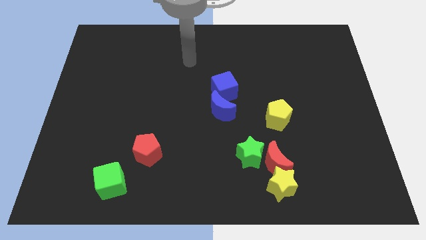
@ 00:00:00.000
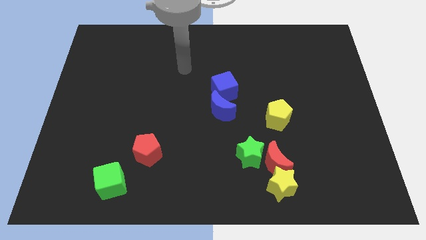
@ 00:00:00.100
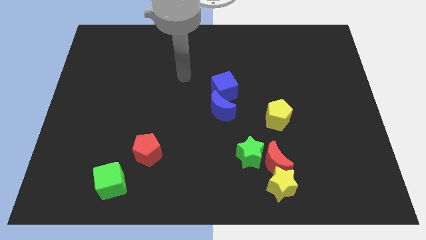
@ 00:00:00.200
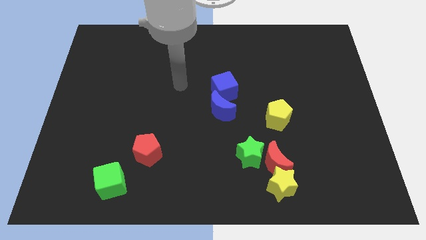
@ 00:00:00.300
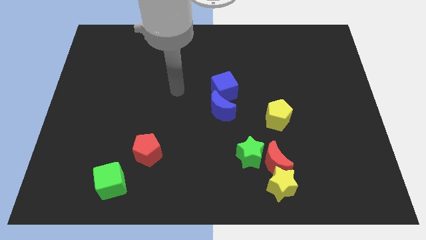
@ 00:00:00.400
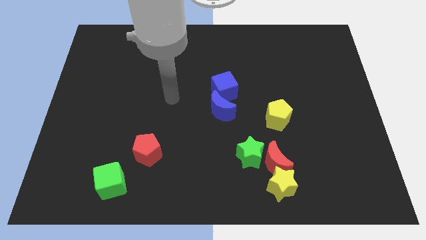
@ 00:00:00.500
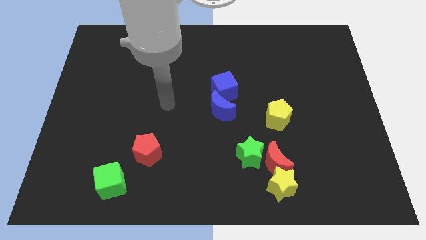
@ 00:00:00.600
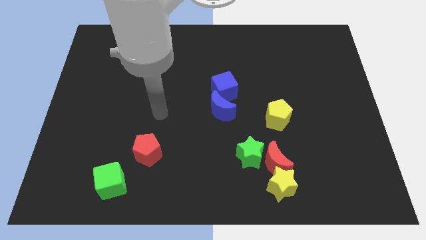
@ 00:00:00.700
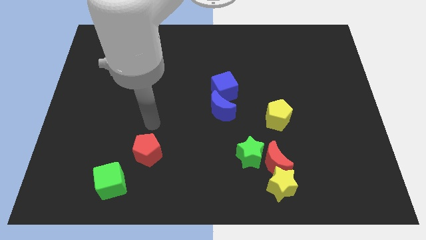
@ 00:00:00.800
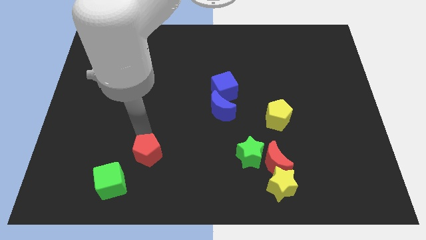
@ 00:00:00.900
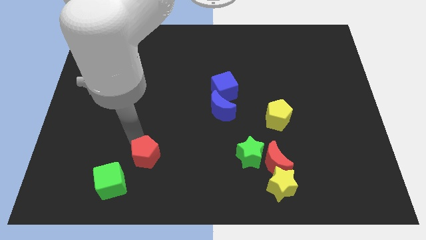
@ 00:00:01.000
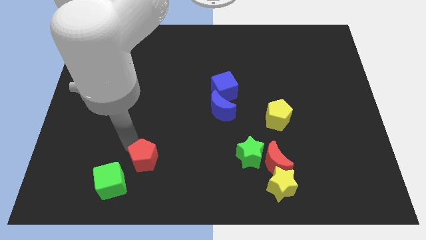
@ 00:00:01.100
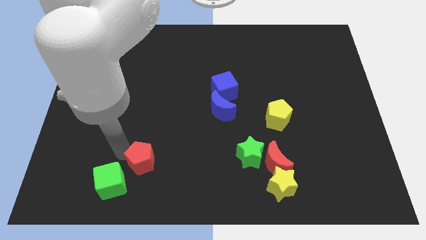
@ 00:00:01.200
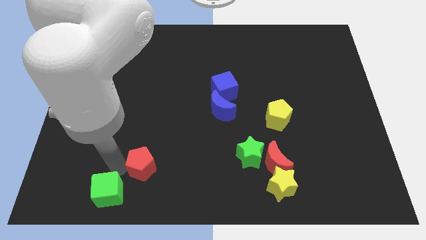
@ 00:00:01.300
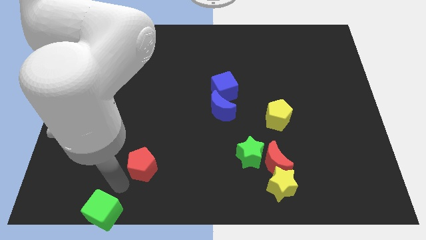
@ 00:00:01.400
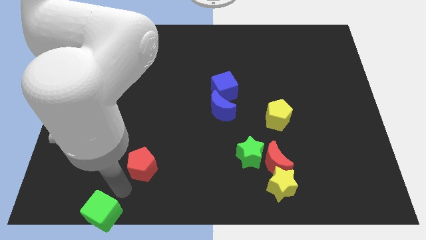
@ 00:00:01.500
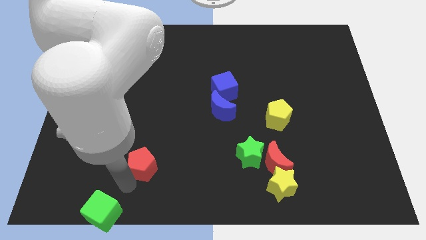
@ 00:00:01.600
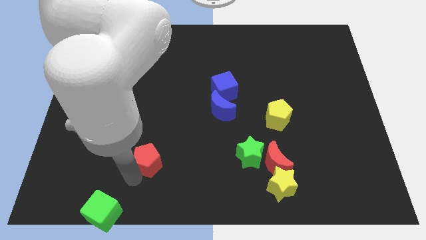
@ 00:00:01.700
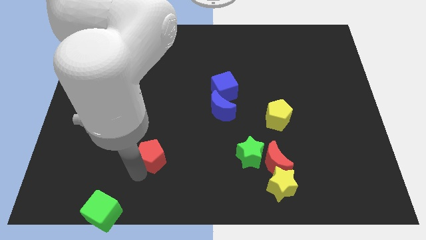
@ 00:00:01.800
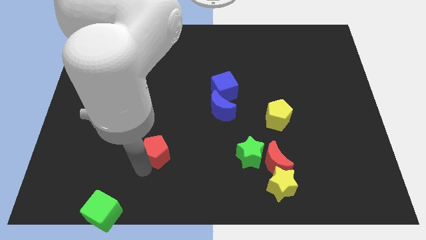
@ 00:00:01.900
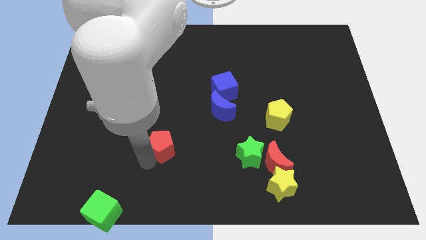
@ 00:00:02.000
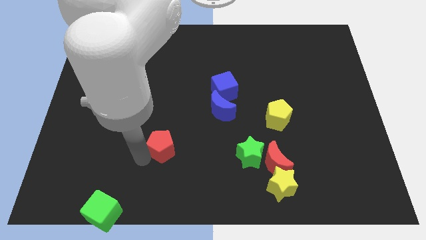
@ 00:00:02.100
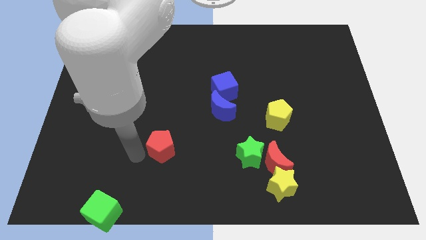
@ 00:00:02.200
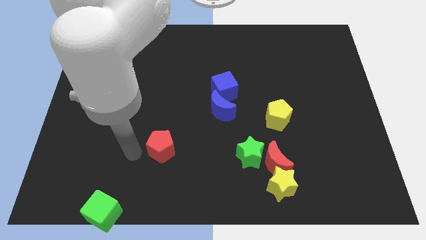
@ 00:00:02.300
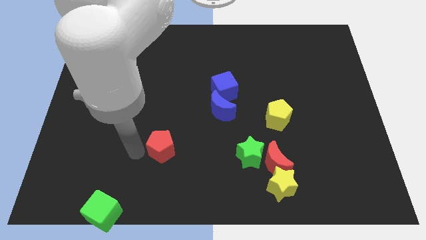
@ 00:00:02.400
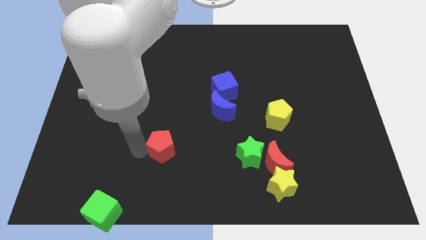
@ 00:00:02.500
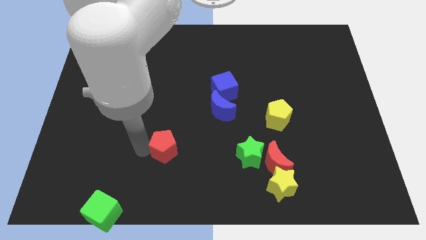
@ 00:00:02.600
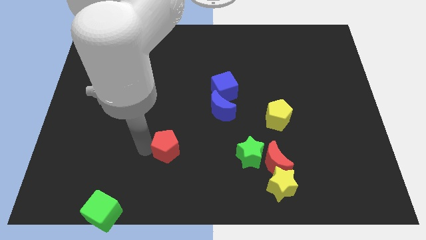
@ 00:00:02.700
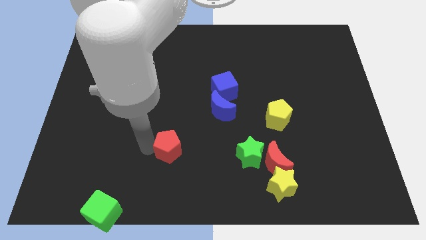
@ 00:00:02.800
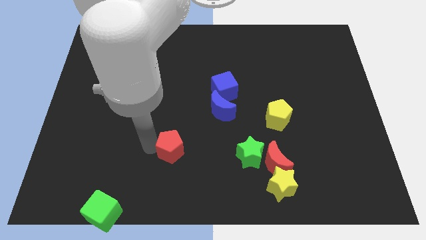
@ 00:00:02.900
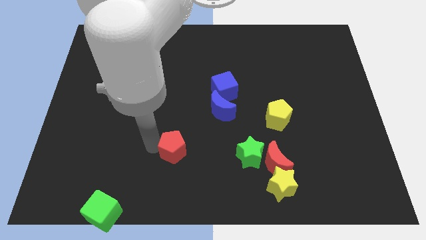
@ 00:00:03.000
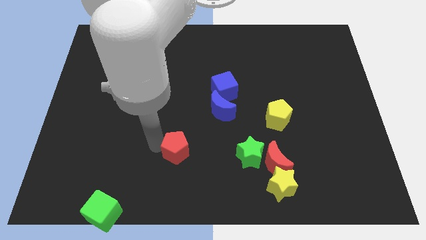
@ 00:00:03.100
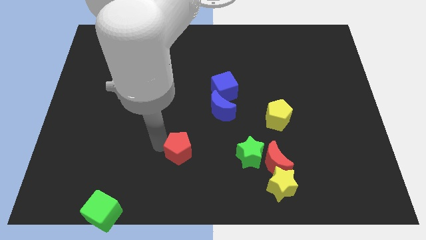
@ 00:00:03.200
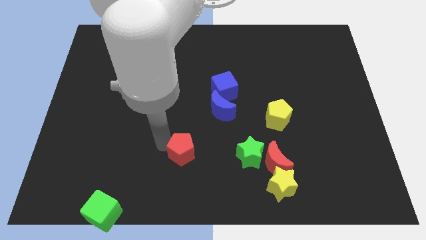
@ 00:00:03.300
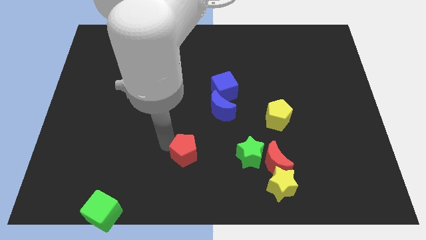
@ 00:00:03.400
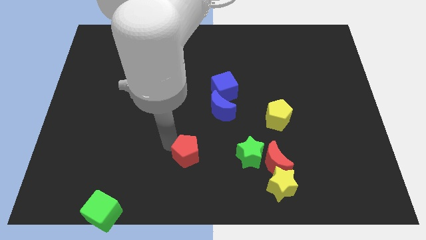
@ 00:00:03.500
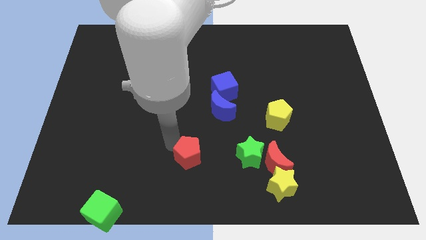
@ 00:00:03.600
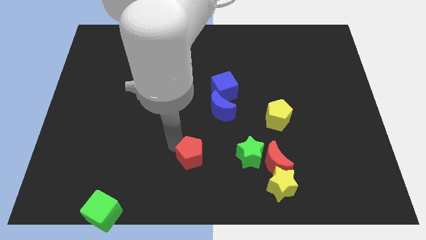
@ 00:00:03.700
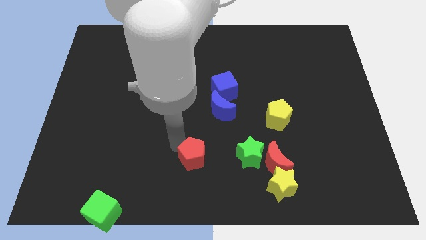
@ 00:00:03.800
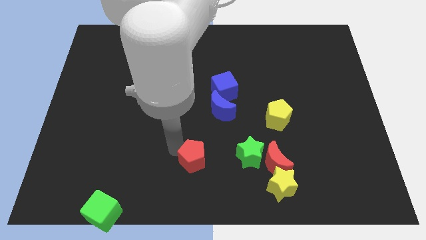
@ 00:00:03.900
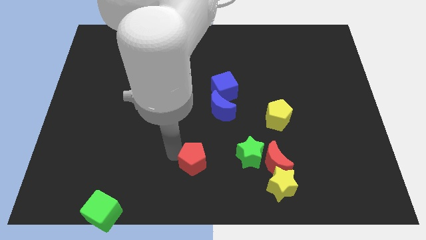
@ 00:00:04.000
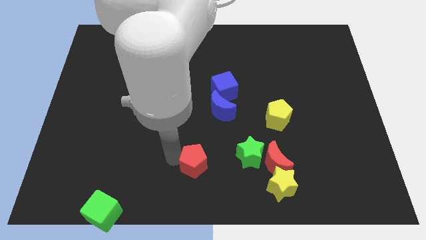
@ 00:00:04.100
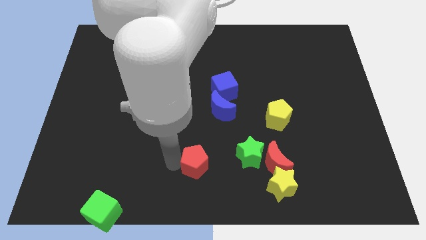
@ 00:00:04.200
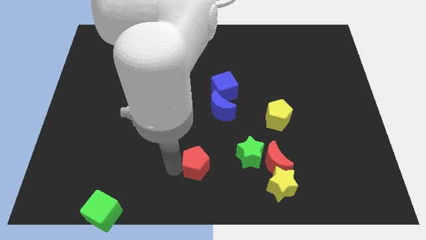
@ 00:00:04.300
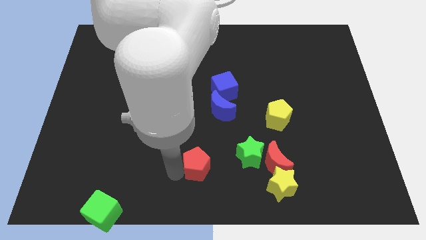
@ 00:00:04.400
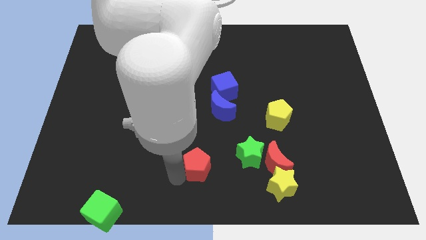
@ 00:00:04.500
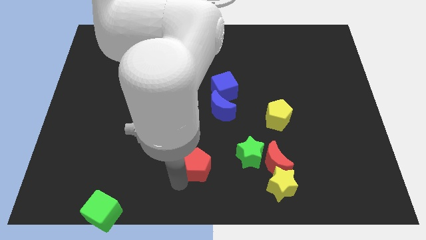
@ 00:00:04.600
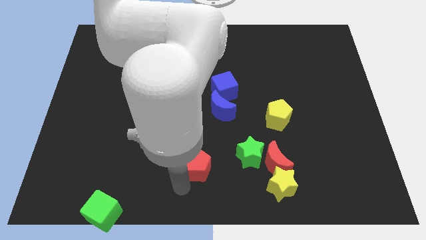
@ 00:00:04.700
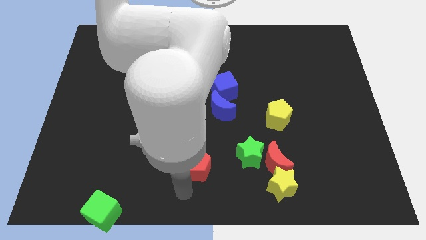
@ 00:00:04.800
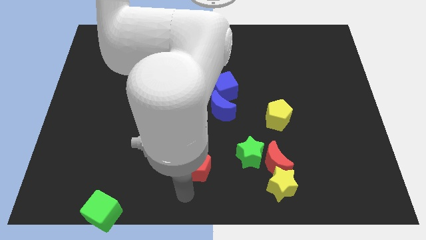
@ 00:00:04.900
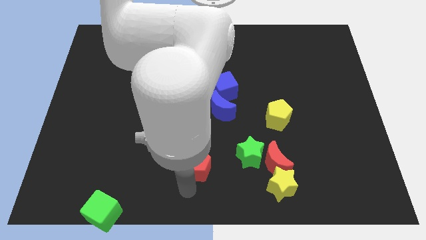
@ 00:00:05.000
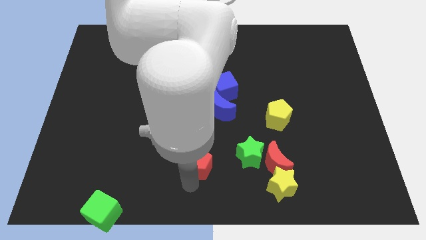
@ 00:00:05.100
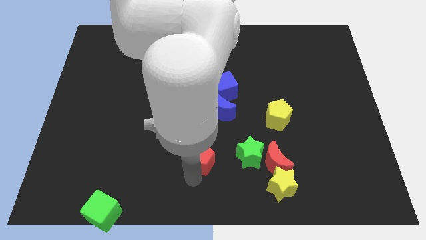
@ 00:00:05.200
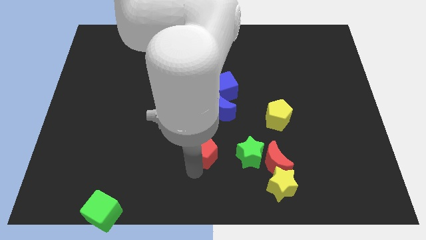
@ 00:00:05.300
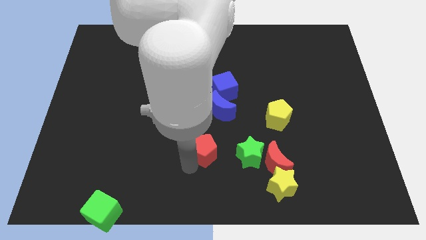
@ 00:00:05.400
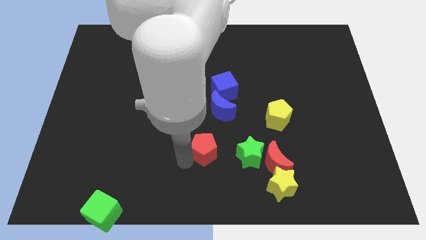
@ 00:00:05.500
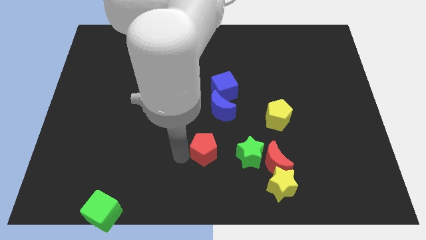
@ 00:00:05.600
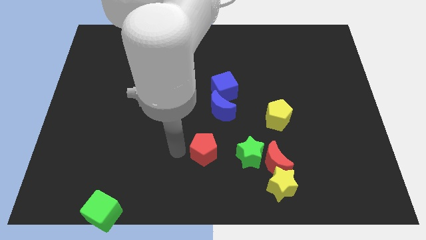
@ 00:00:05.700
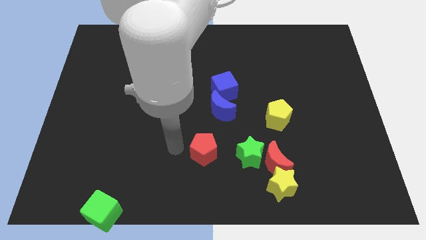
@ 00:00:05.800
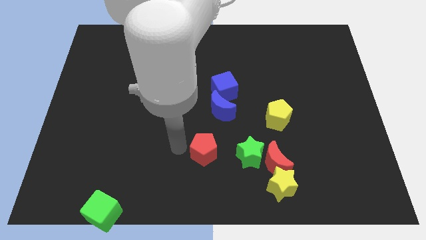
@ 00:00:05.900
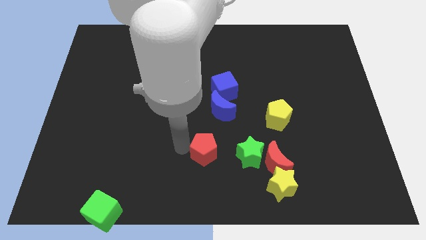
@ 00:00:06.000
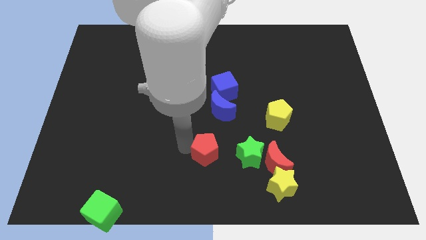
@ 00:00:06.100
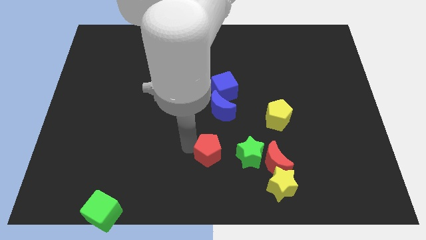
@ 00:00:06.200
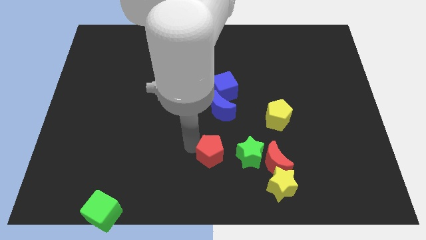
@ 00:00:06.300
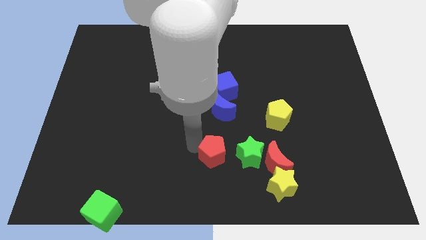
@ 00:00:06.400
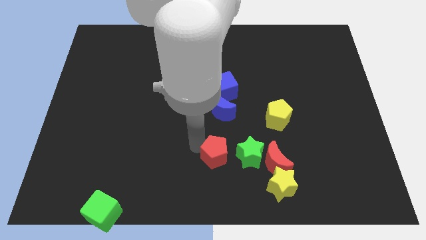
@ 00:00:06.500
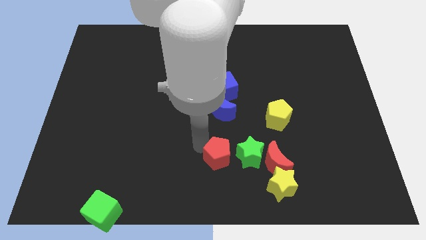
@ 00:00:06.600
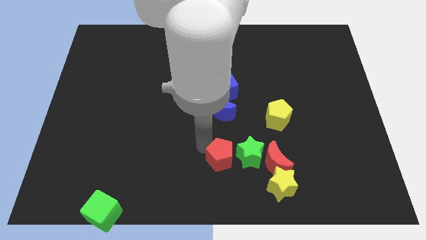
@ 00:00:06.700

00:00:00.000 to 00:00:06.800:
move the red pentagon next to the green star

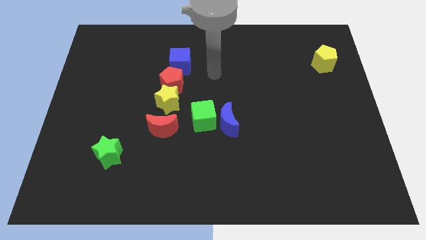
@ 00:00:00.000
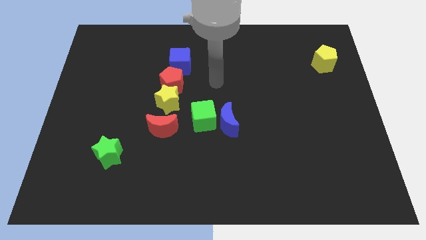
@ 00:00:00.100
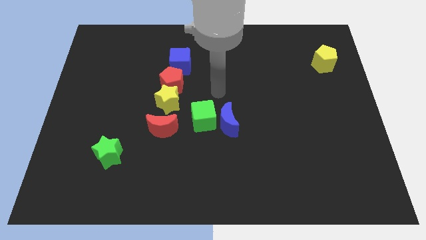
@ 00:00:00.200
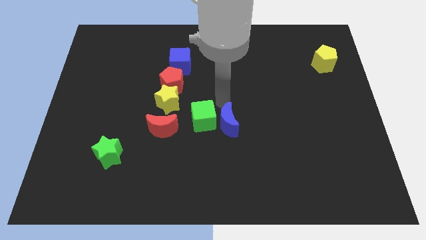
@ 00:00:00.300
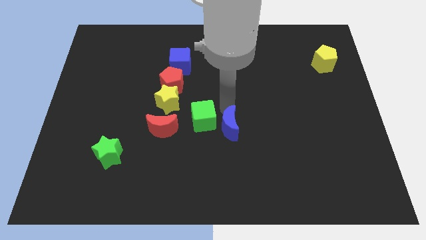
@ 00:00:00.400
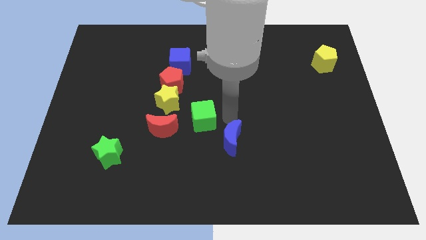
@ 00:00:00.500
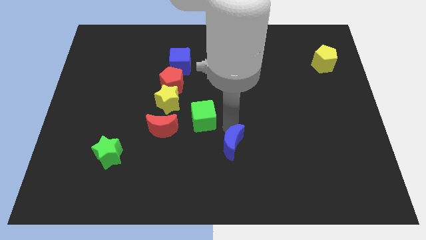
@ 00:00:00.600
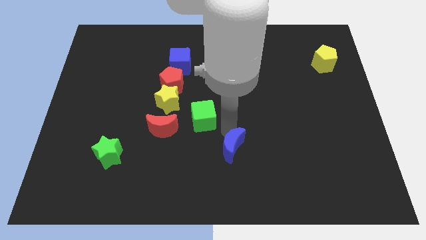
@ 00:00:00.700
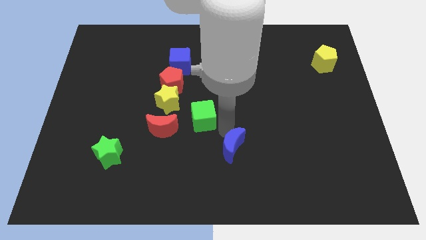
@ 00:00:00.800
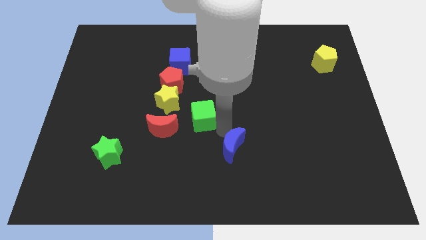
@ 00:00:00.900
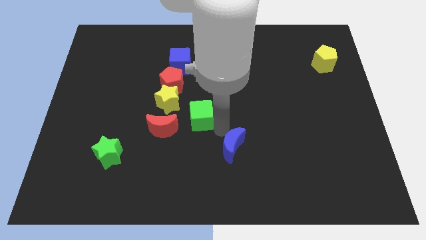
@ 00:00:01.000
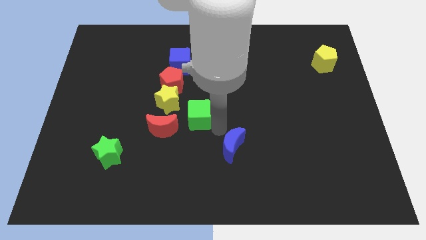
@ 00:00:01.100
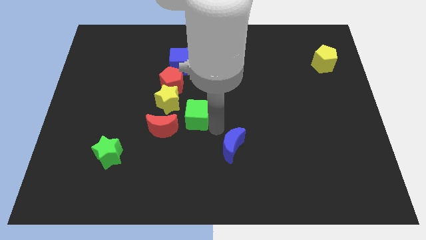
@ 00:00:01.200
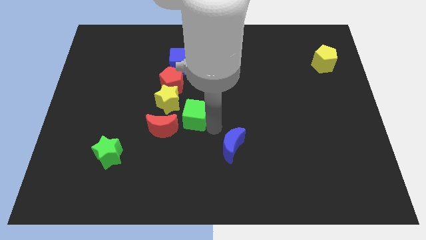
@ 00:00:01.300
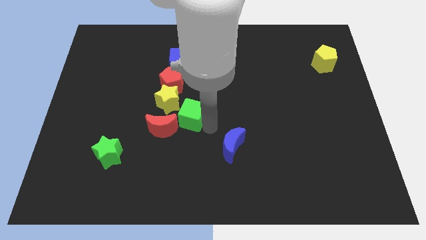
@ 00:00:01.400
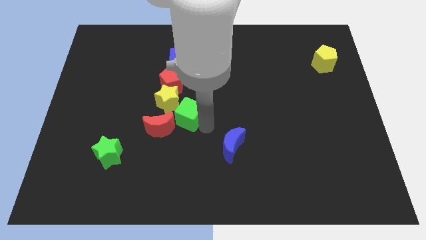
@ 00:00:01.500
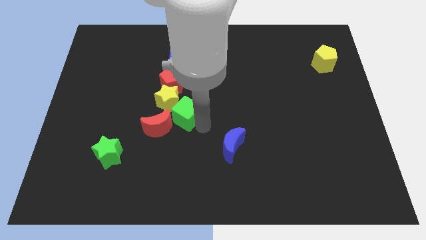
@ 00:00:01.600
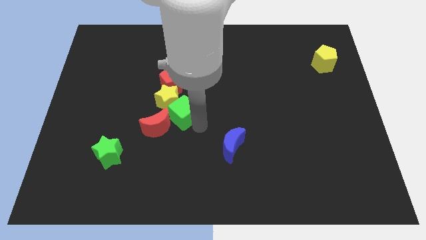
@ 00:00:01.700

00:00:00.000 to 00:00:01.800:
slide the green cube to the yellow star
